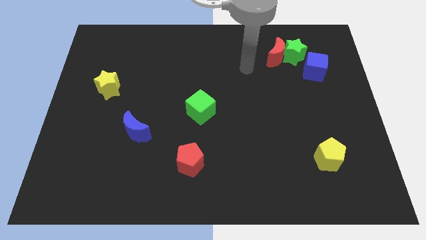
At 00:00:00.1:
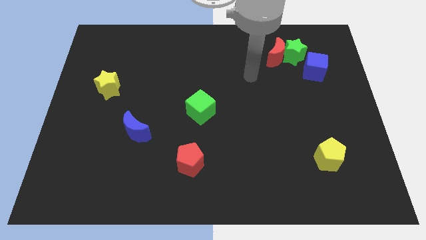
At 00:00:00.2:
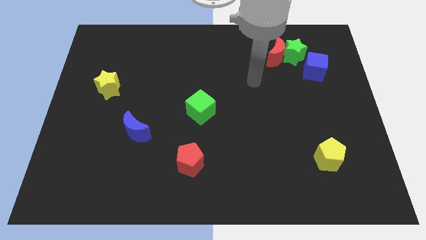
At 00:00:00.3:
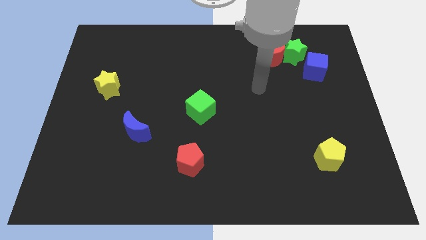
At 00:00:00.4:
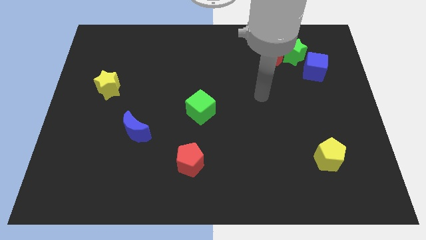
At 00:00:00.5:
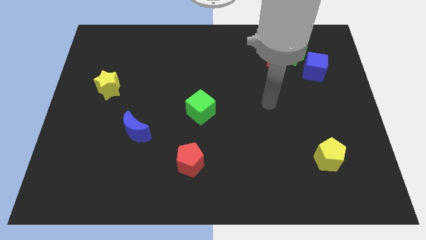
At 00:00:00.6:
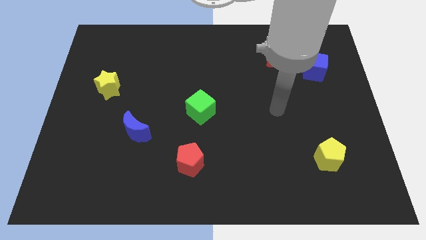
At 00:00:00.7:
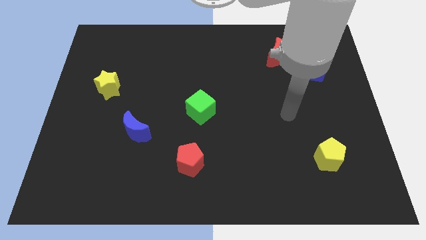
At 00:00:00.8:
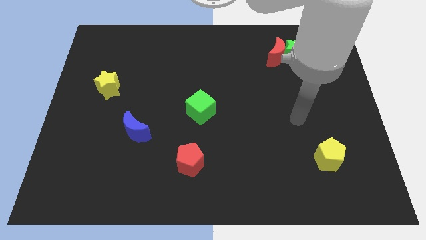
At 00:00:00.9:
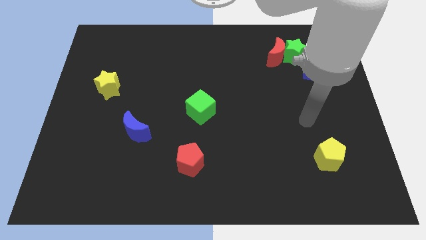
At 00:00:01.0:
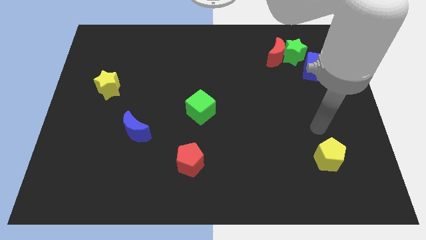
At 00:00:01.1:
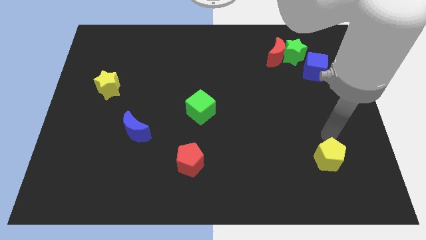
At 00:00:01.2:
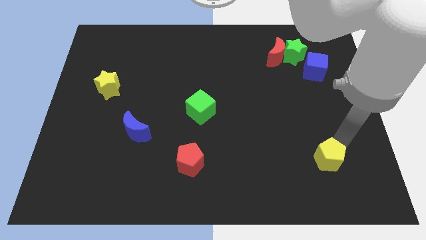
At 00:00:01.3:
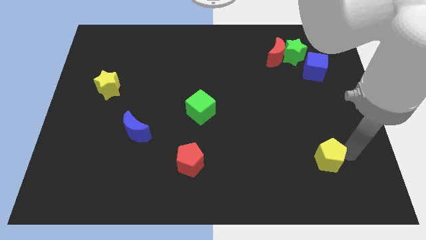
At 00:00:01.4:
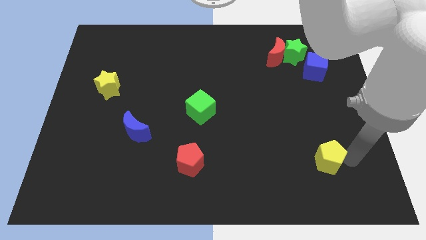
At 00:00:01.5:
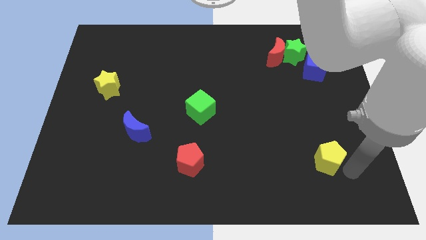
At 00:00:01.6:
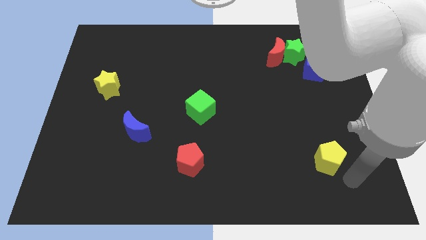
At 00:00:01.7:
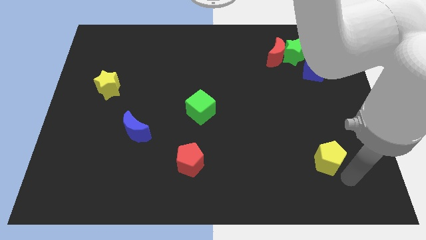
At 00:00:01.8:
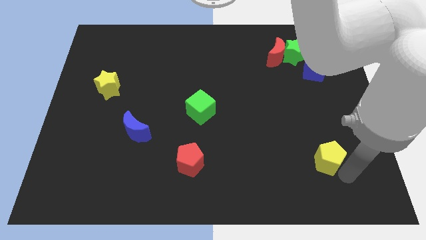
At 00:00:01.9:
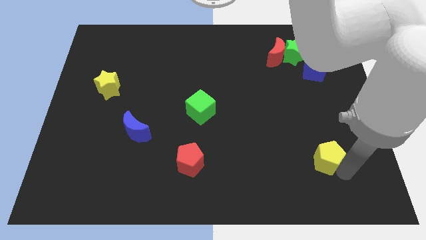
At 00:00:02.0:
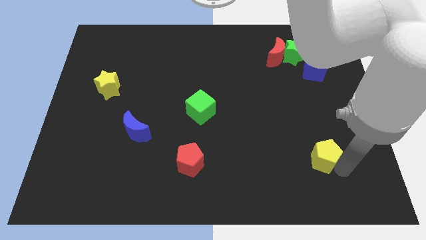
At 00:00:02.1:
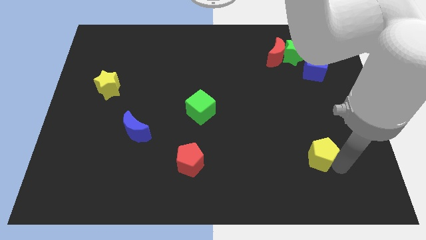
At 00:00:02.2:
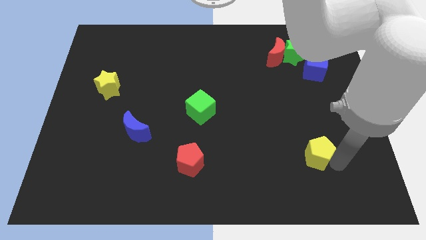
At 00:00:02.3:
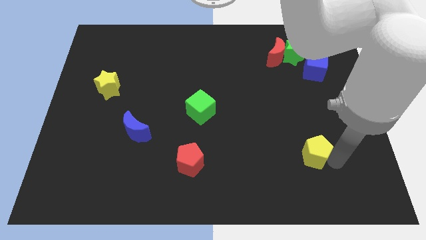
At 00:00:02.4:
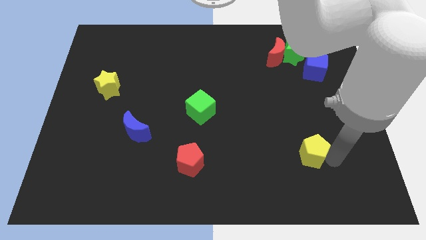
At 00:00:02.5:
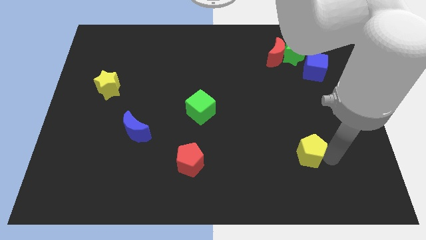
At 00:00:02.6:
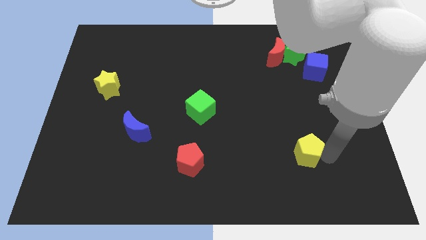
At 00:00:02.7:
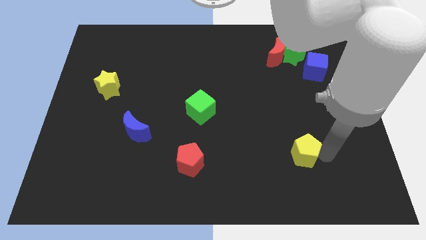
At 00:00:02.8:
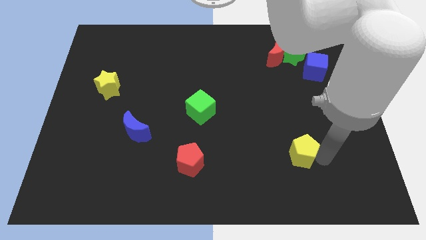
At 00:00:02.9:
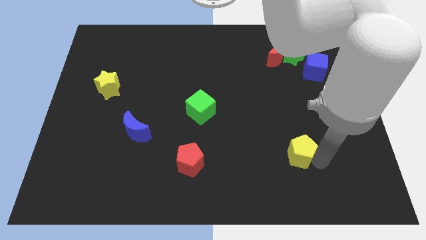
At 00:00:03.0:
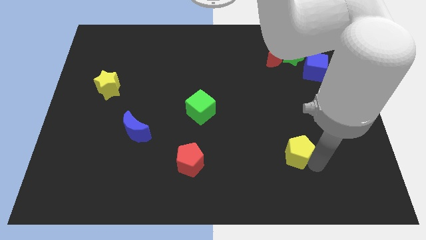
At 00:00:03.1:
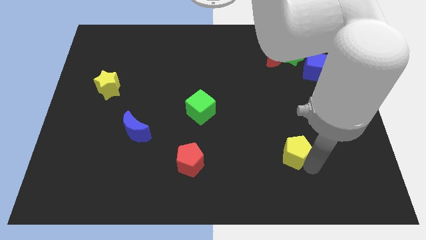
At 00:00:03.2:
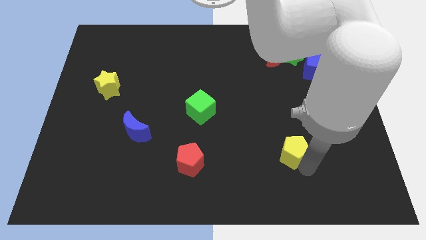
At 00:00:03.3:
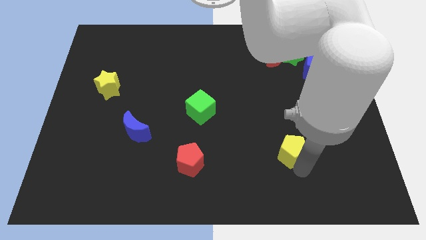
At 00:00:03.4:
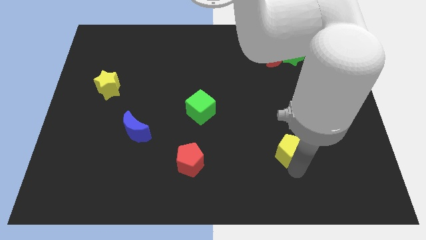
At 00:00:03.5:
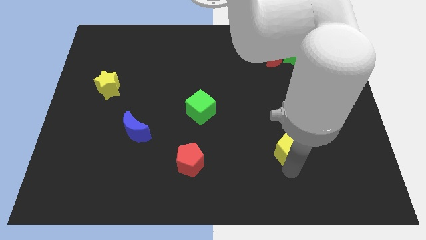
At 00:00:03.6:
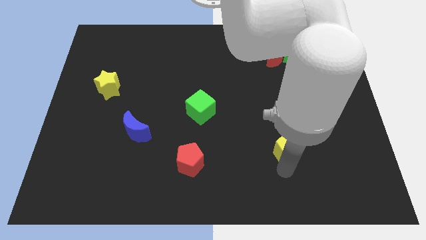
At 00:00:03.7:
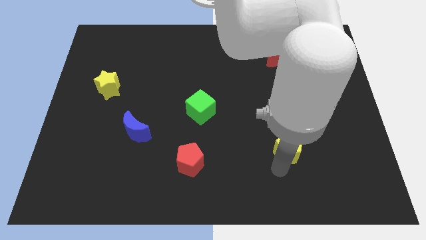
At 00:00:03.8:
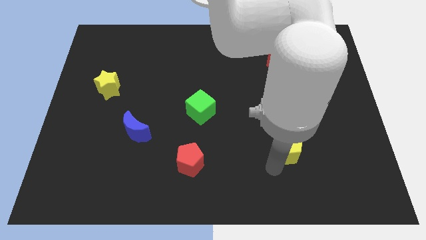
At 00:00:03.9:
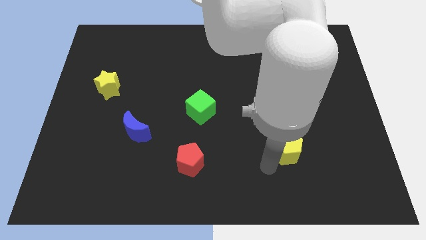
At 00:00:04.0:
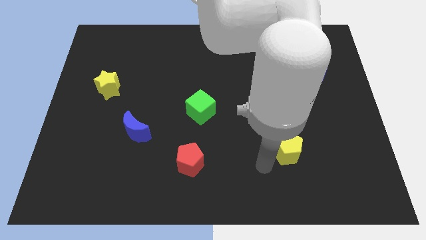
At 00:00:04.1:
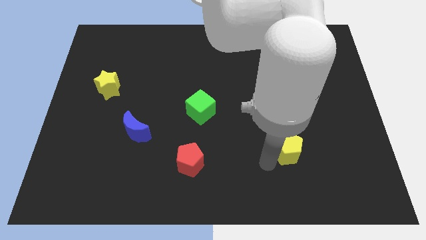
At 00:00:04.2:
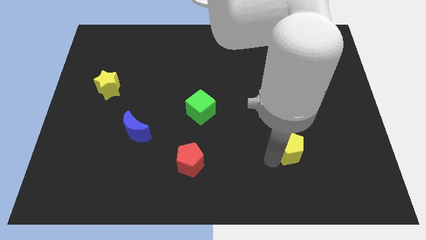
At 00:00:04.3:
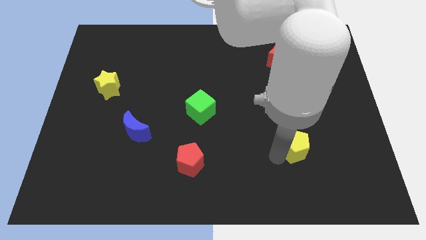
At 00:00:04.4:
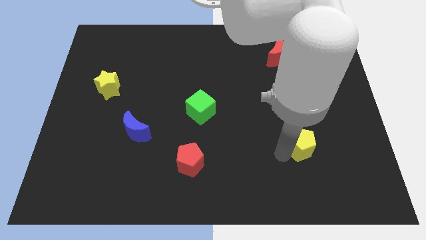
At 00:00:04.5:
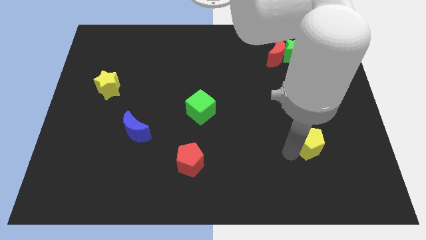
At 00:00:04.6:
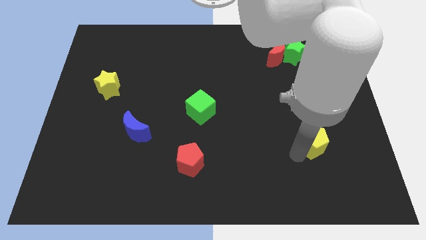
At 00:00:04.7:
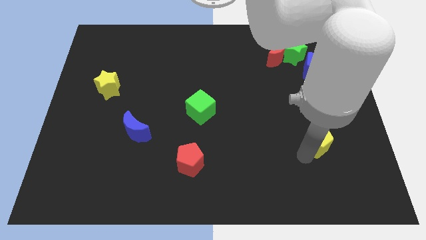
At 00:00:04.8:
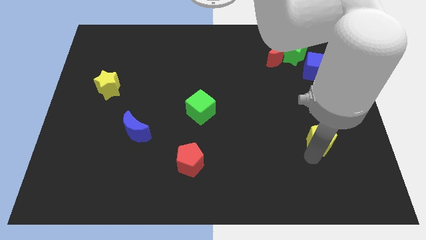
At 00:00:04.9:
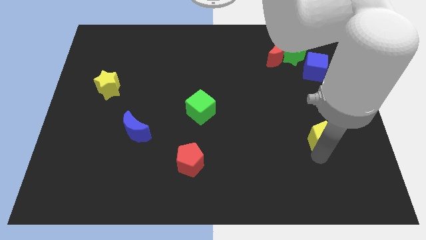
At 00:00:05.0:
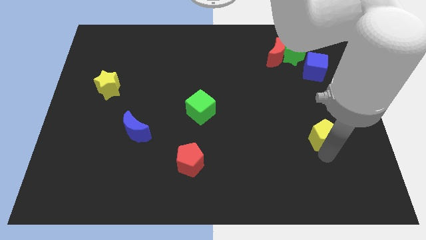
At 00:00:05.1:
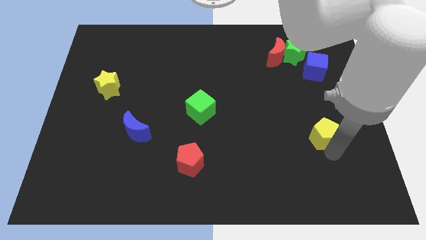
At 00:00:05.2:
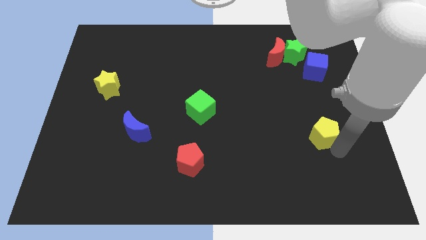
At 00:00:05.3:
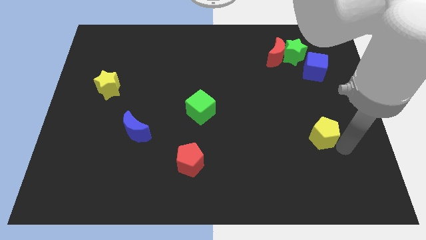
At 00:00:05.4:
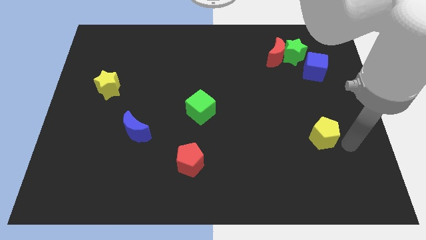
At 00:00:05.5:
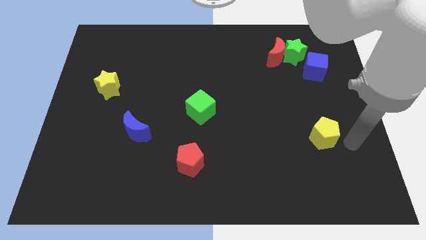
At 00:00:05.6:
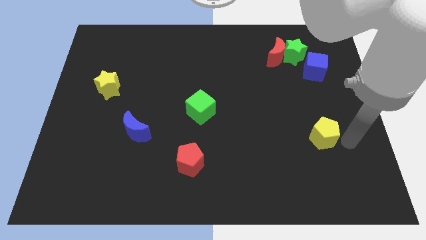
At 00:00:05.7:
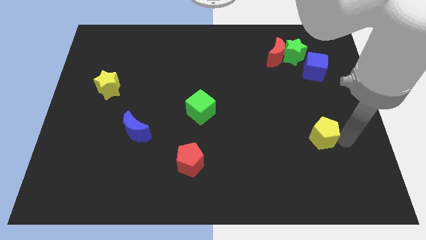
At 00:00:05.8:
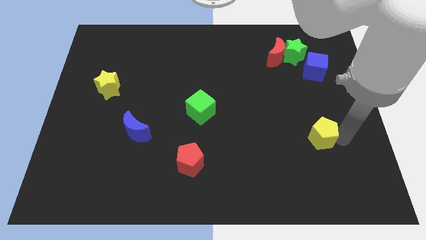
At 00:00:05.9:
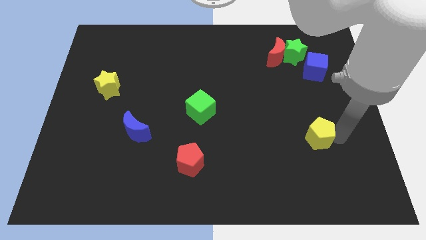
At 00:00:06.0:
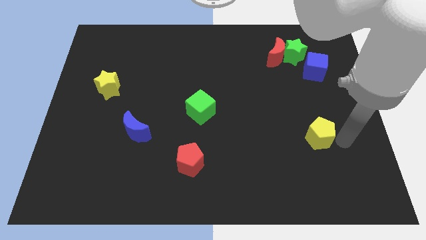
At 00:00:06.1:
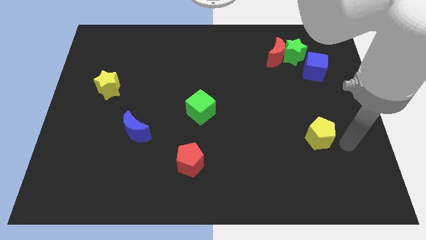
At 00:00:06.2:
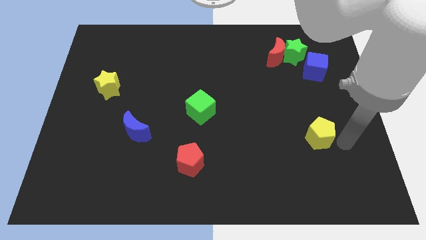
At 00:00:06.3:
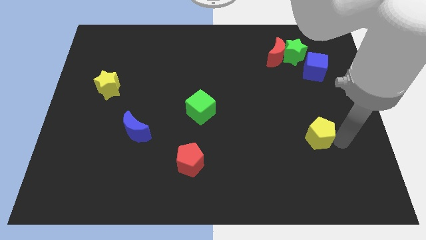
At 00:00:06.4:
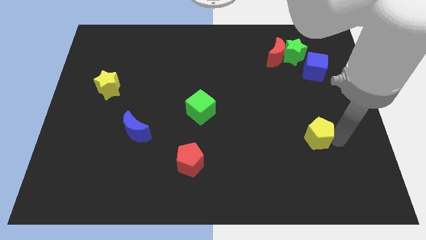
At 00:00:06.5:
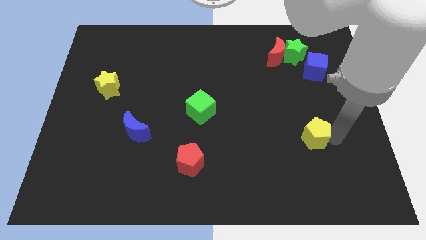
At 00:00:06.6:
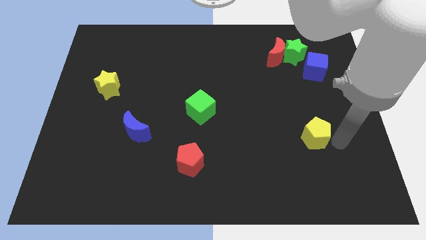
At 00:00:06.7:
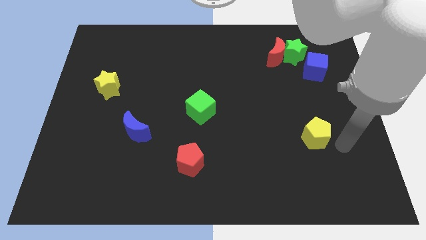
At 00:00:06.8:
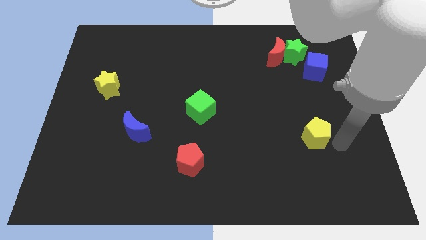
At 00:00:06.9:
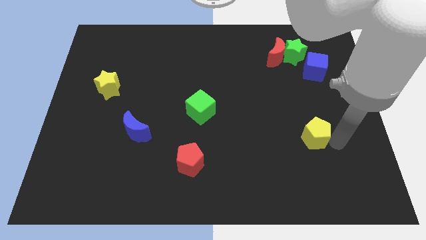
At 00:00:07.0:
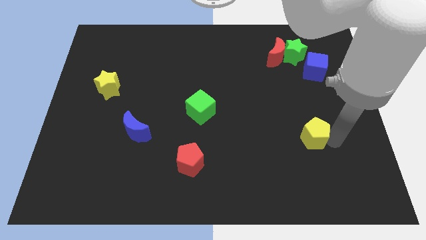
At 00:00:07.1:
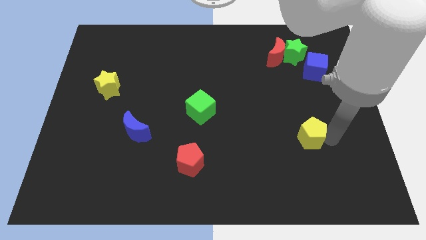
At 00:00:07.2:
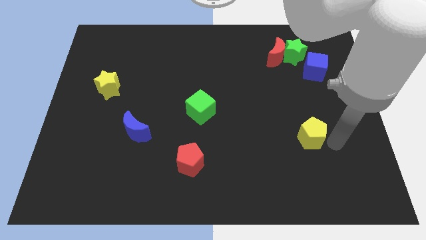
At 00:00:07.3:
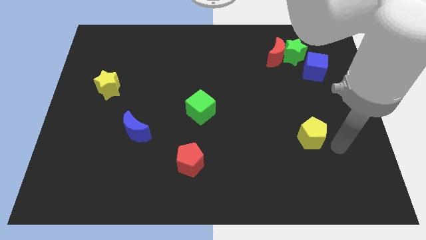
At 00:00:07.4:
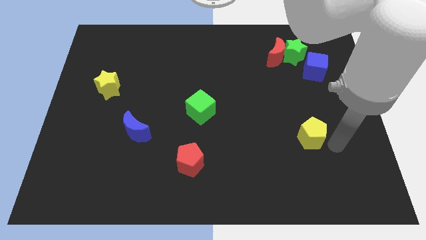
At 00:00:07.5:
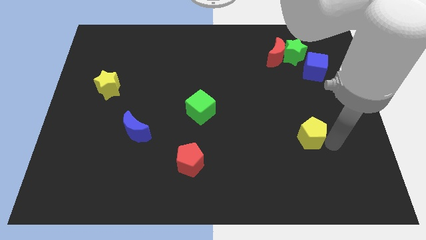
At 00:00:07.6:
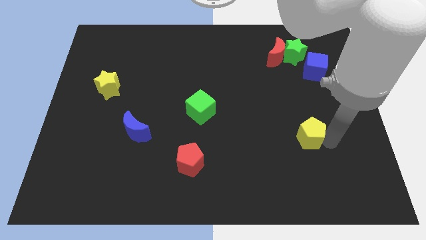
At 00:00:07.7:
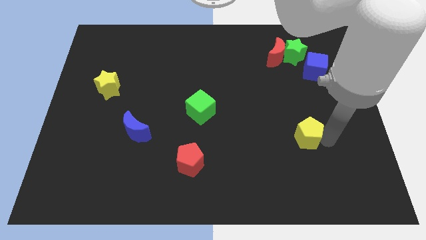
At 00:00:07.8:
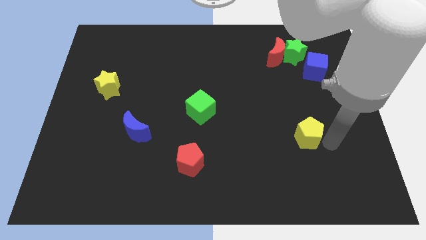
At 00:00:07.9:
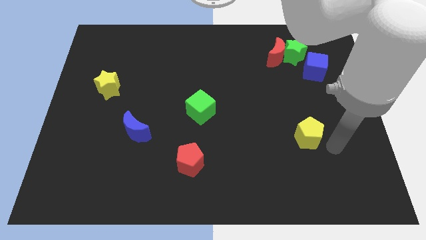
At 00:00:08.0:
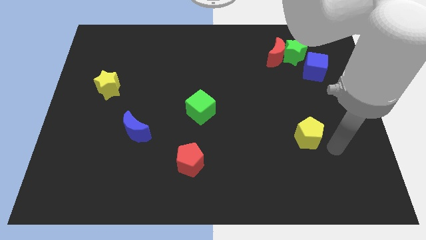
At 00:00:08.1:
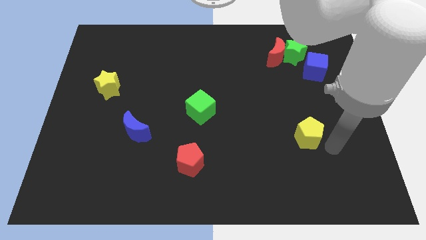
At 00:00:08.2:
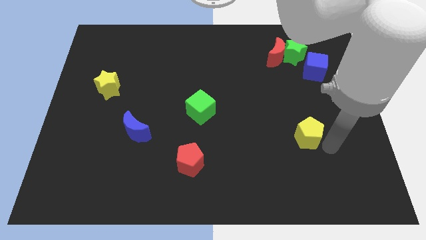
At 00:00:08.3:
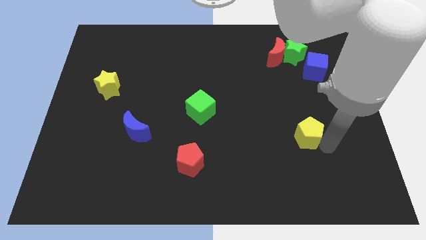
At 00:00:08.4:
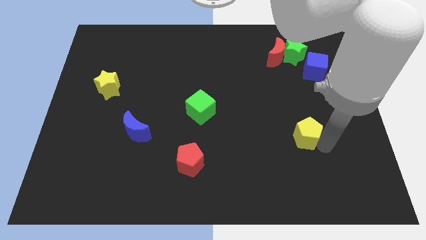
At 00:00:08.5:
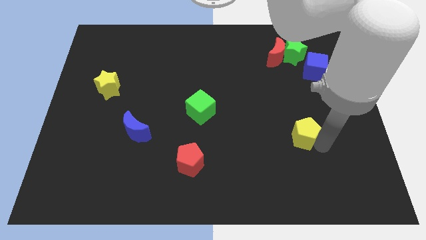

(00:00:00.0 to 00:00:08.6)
push the yellow pentagon somewhat up and then left
